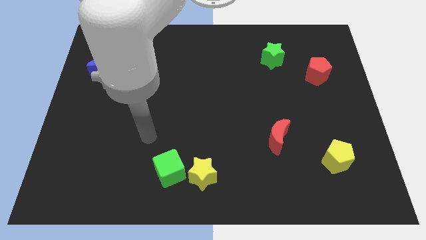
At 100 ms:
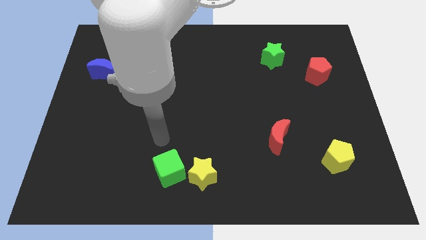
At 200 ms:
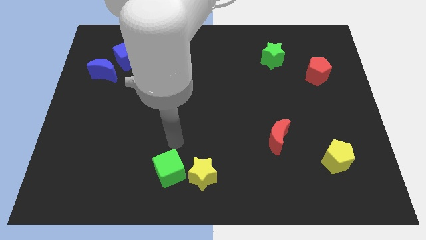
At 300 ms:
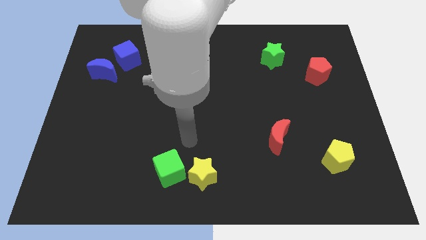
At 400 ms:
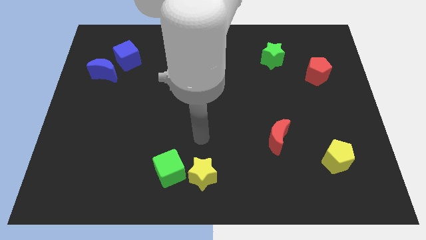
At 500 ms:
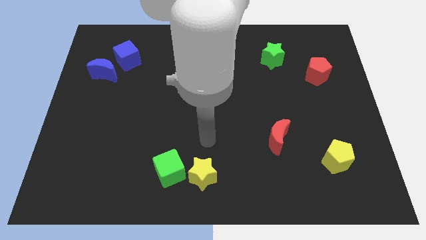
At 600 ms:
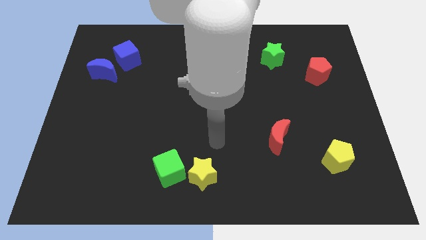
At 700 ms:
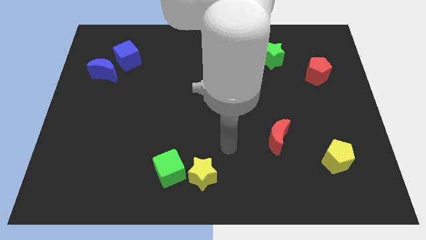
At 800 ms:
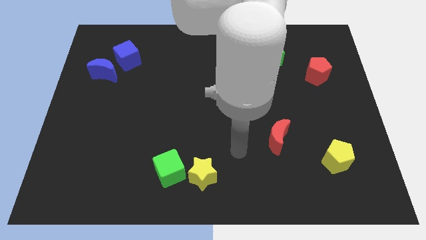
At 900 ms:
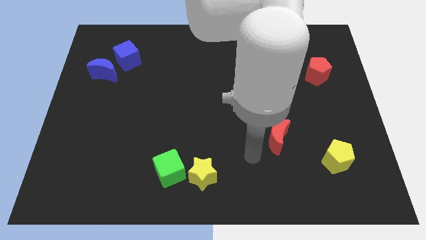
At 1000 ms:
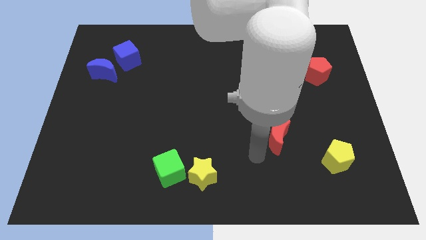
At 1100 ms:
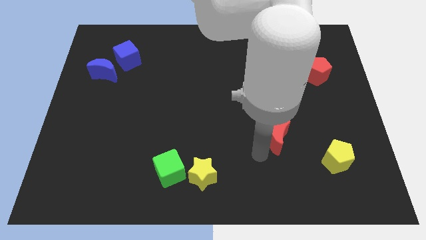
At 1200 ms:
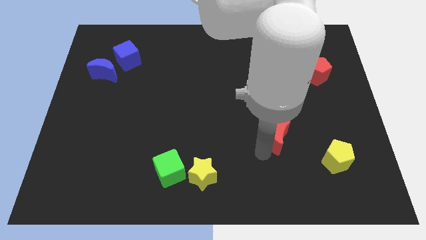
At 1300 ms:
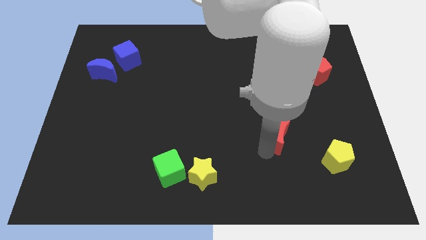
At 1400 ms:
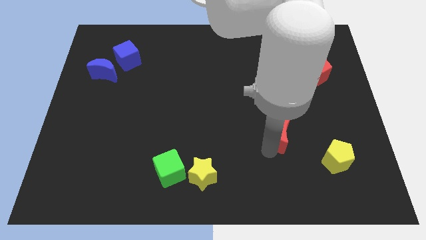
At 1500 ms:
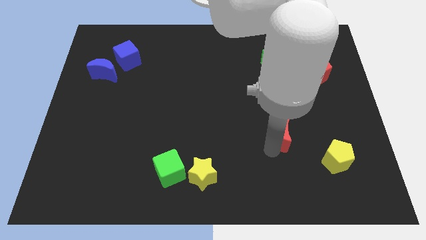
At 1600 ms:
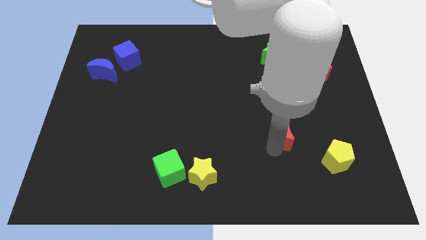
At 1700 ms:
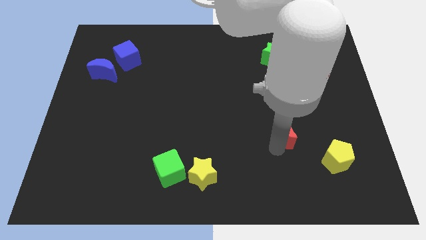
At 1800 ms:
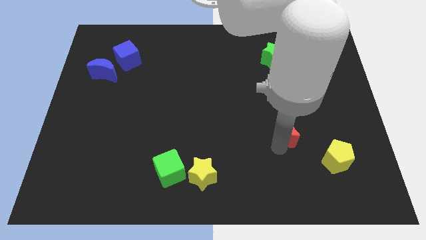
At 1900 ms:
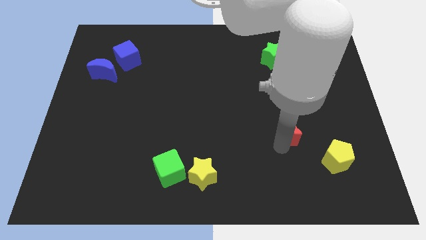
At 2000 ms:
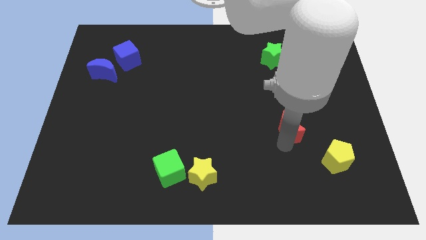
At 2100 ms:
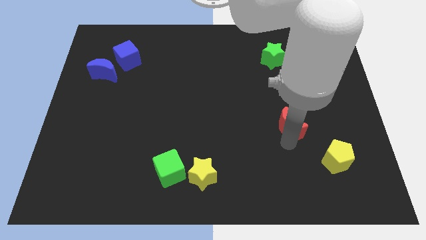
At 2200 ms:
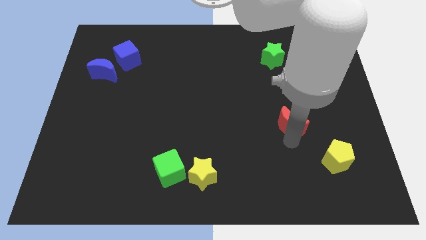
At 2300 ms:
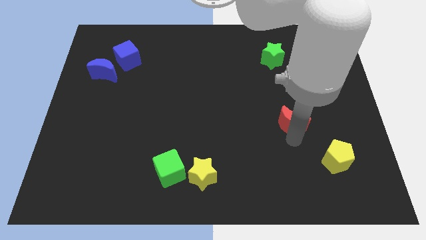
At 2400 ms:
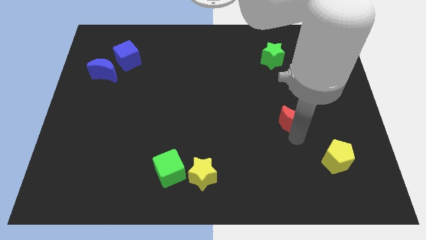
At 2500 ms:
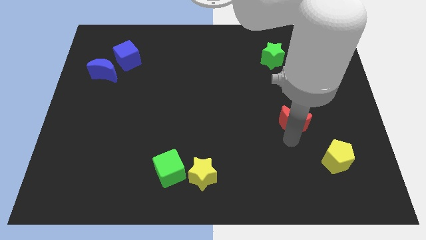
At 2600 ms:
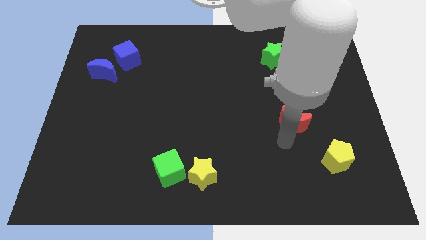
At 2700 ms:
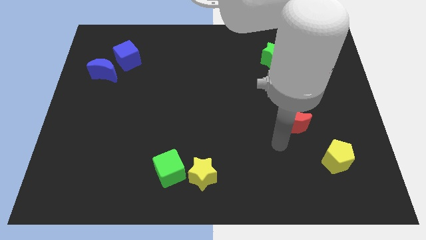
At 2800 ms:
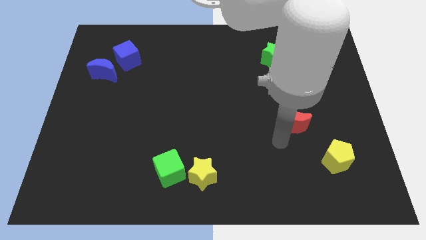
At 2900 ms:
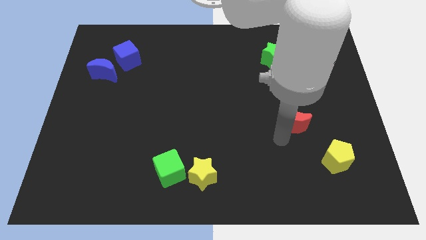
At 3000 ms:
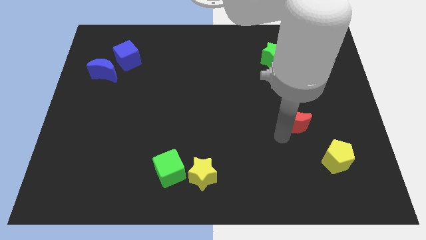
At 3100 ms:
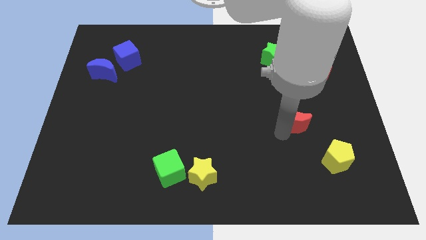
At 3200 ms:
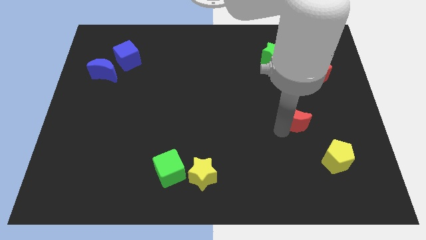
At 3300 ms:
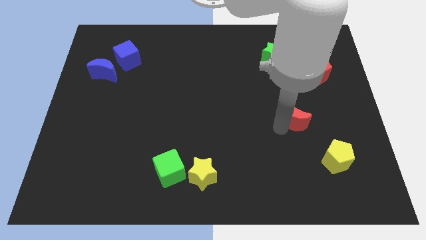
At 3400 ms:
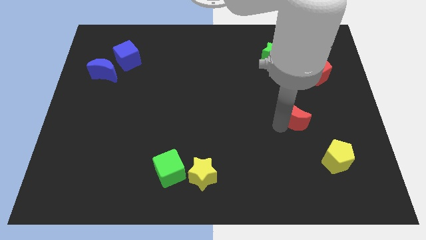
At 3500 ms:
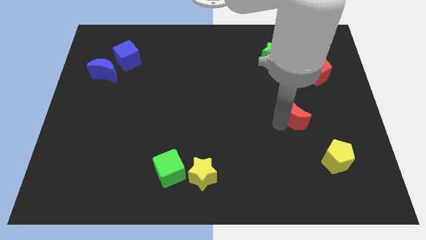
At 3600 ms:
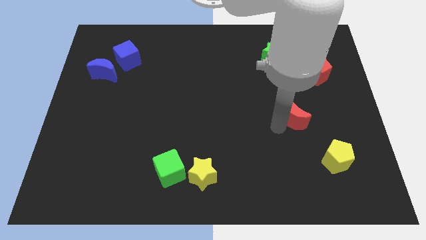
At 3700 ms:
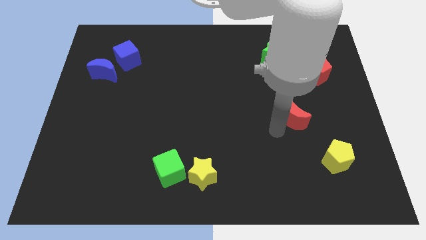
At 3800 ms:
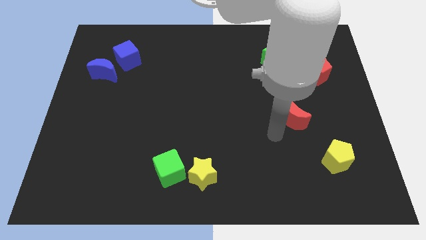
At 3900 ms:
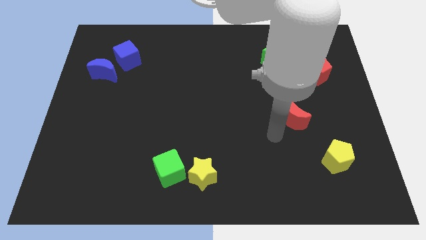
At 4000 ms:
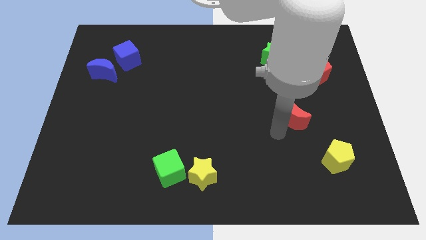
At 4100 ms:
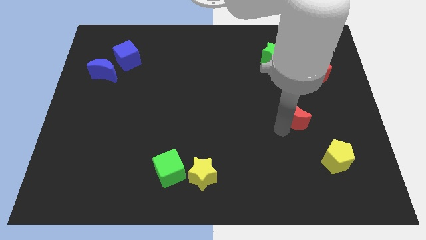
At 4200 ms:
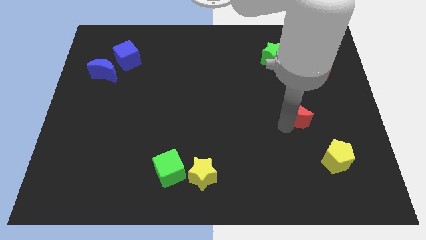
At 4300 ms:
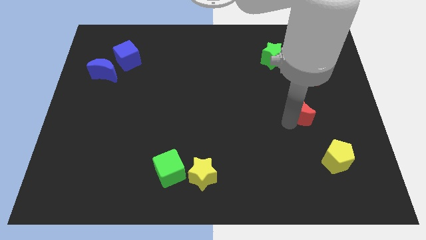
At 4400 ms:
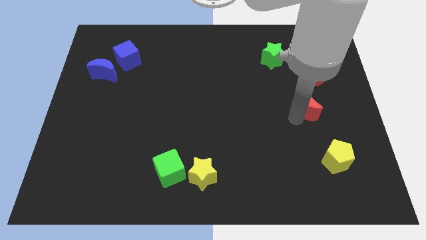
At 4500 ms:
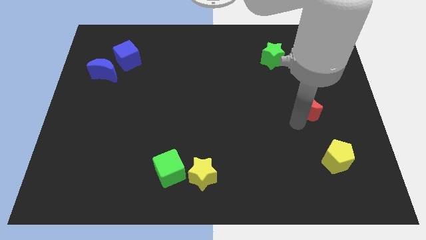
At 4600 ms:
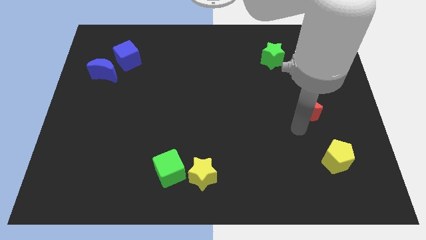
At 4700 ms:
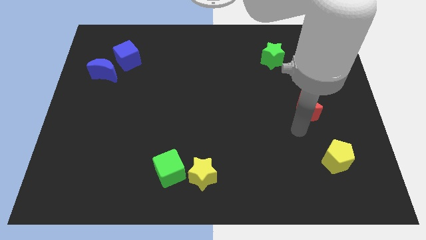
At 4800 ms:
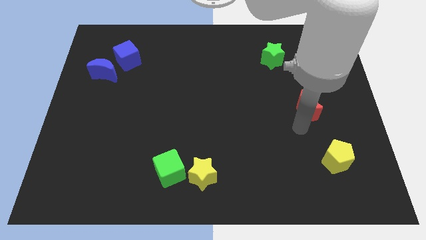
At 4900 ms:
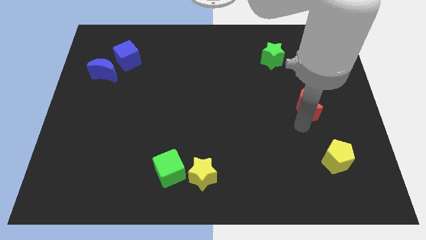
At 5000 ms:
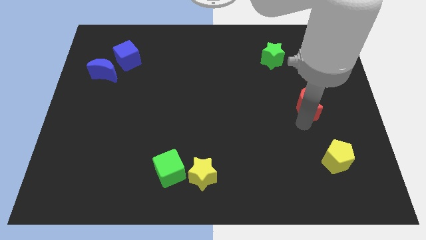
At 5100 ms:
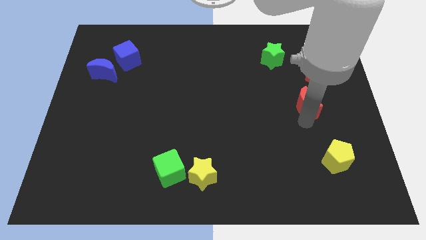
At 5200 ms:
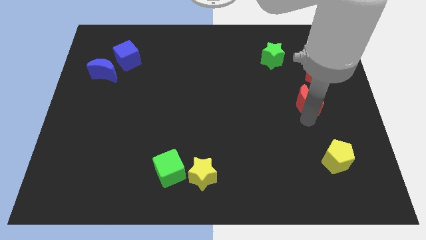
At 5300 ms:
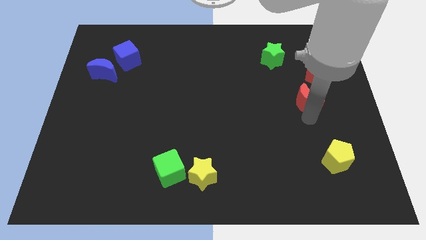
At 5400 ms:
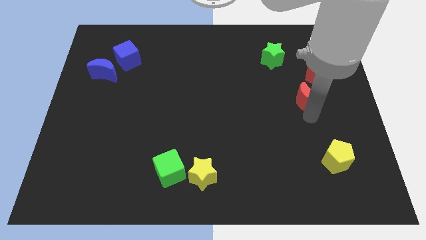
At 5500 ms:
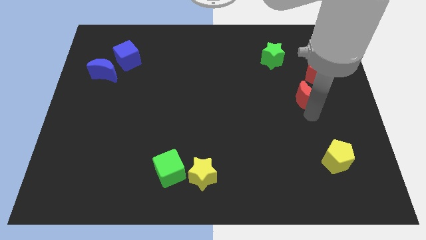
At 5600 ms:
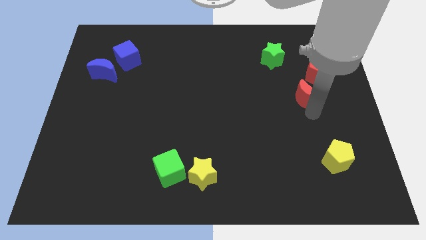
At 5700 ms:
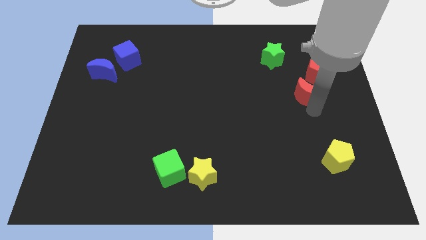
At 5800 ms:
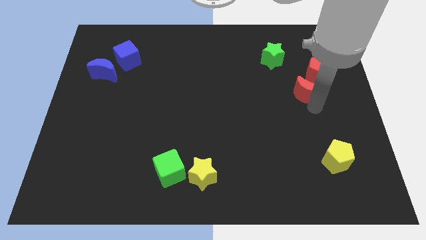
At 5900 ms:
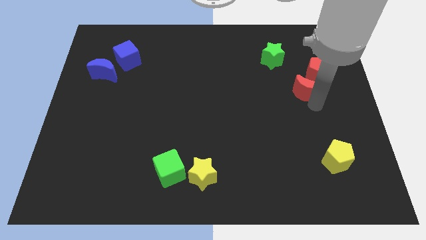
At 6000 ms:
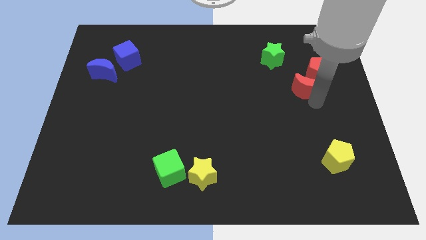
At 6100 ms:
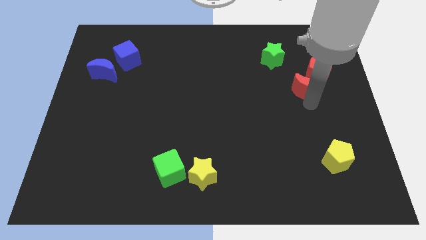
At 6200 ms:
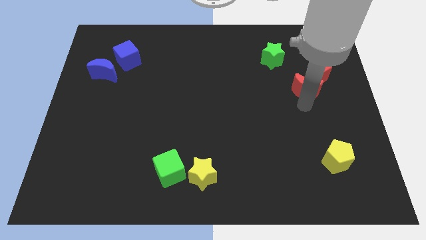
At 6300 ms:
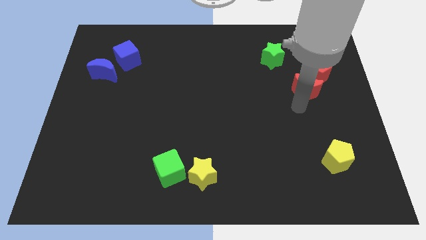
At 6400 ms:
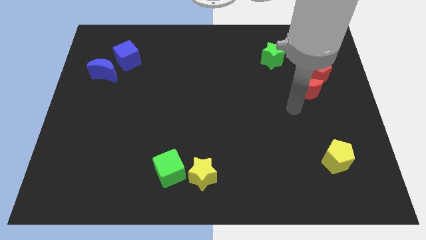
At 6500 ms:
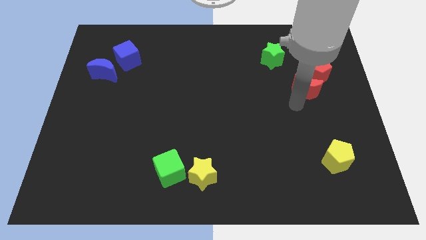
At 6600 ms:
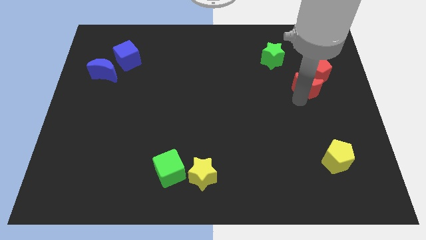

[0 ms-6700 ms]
slide the red moon to the red pentagon

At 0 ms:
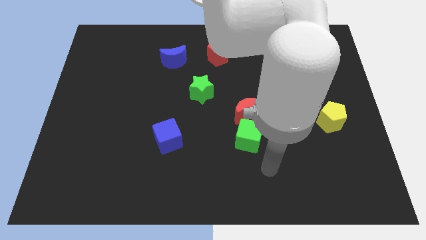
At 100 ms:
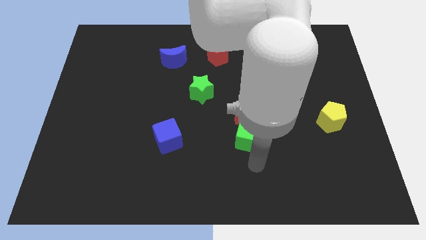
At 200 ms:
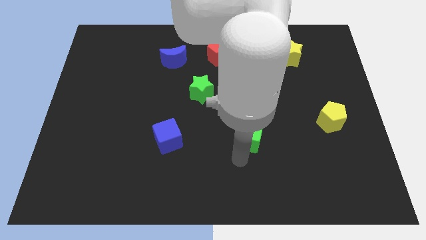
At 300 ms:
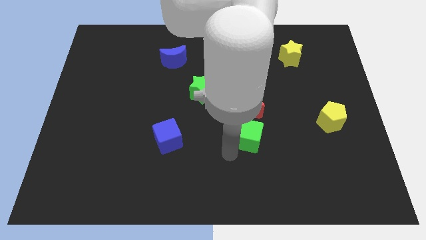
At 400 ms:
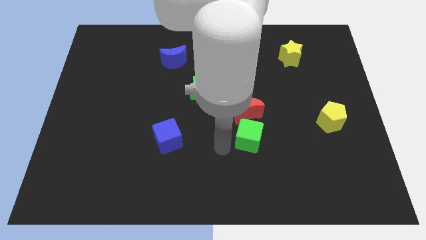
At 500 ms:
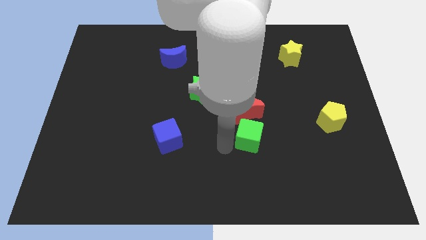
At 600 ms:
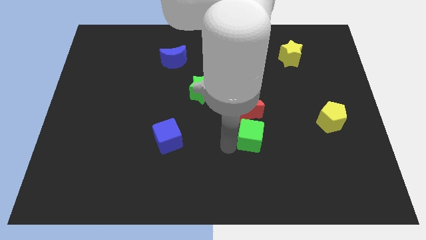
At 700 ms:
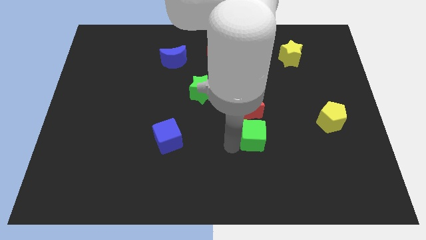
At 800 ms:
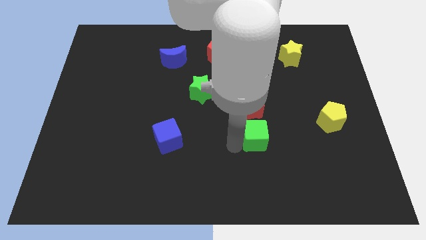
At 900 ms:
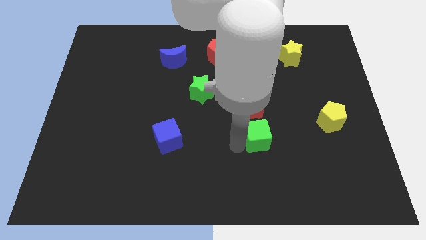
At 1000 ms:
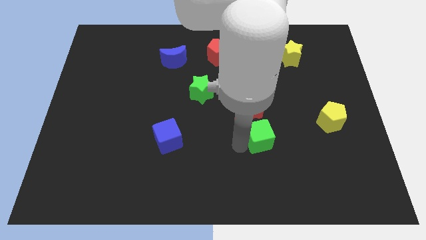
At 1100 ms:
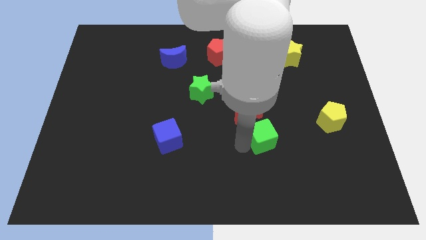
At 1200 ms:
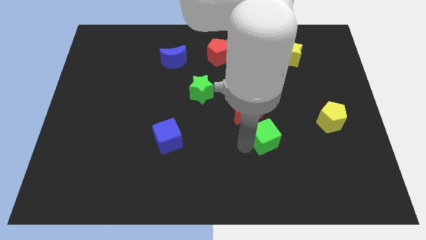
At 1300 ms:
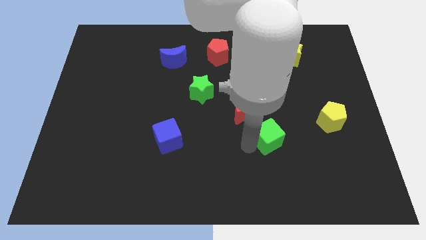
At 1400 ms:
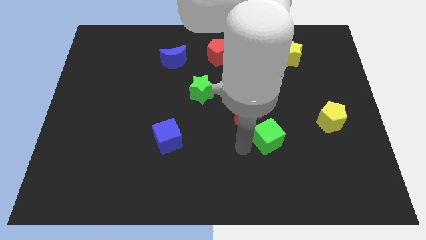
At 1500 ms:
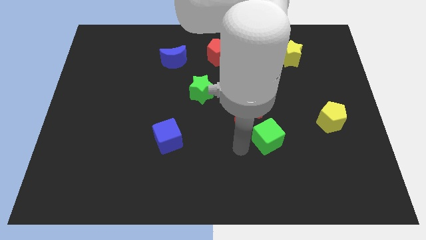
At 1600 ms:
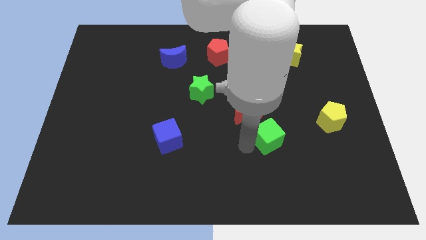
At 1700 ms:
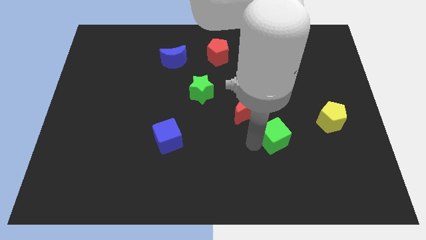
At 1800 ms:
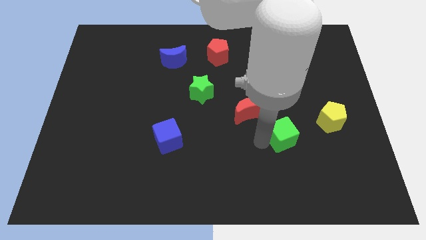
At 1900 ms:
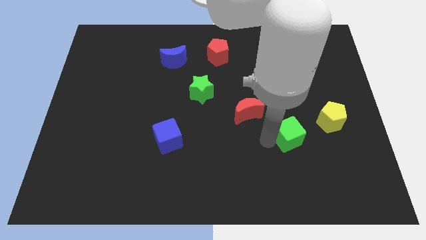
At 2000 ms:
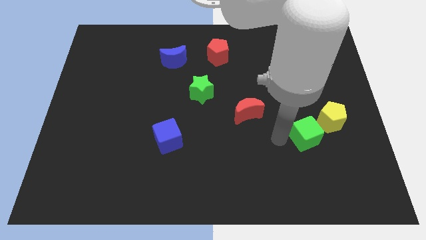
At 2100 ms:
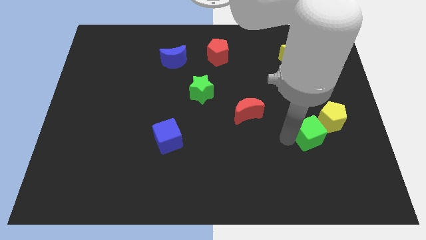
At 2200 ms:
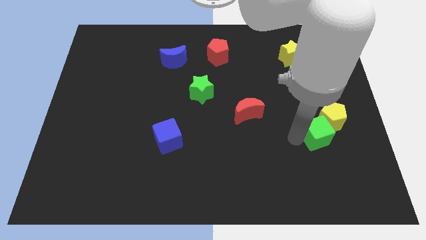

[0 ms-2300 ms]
put the green cube next to the yellow pentagon
